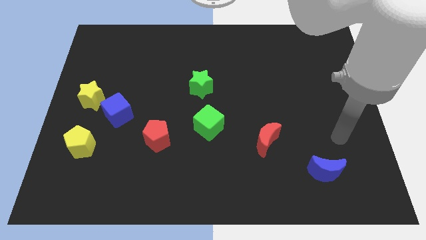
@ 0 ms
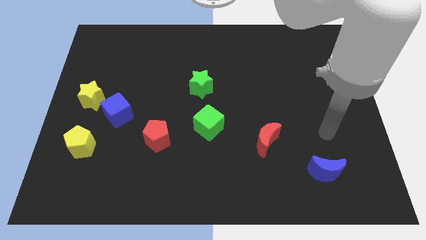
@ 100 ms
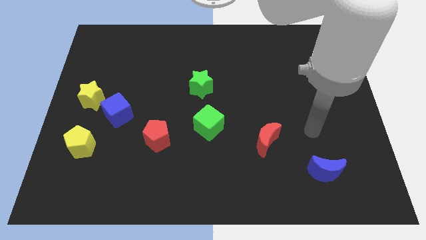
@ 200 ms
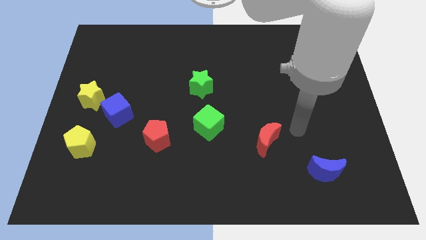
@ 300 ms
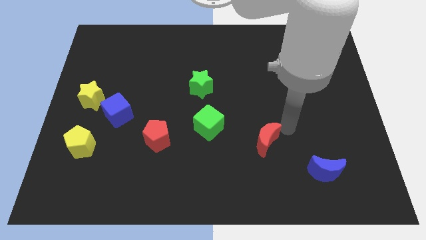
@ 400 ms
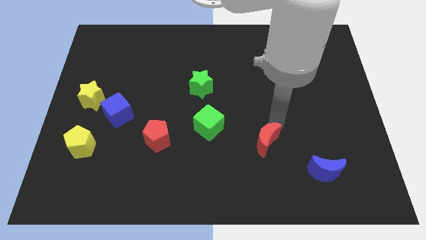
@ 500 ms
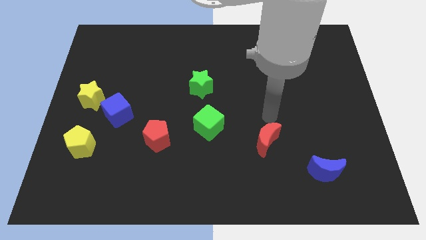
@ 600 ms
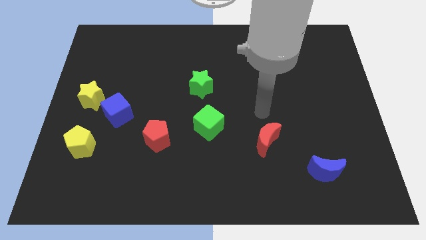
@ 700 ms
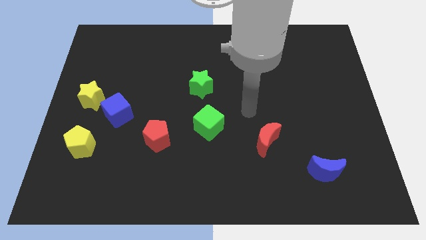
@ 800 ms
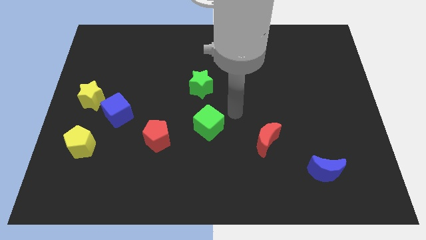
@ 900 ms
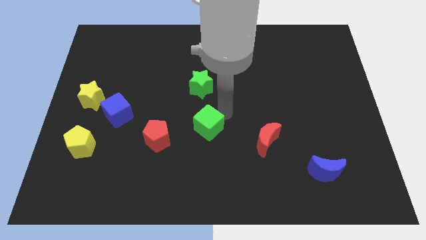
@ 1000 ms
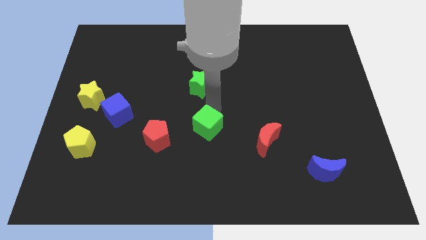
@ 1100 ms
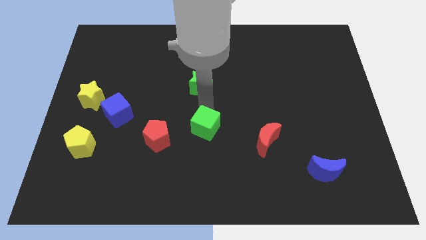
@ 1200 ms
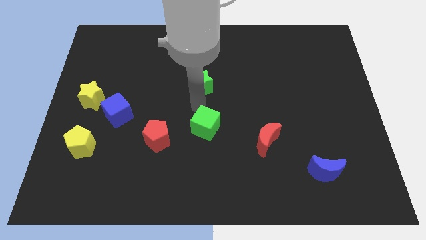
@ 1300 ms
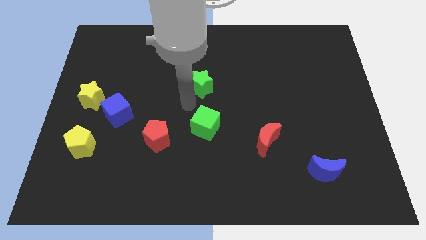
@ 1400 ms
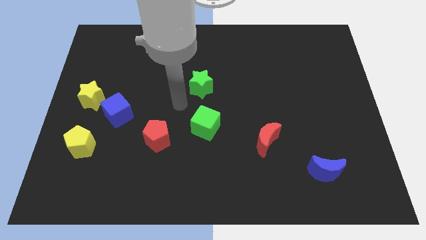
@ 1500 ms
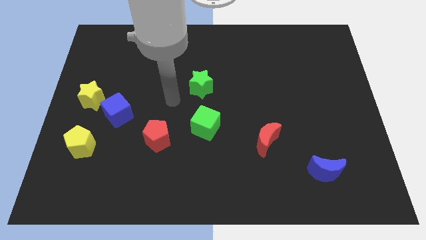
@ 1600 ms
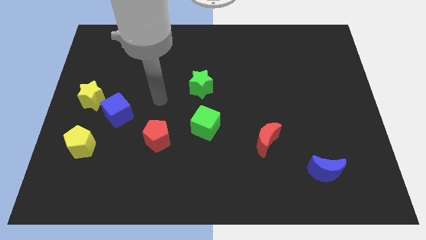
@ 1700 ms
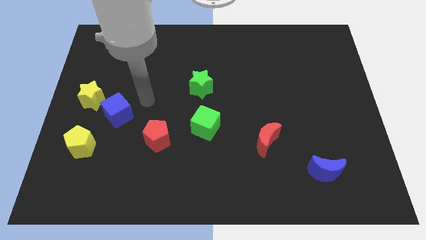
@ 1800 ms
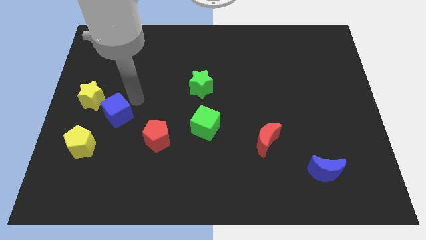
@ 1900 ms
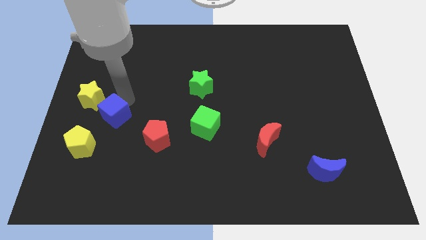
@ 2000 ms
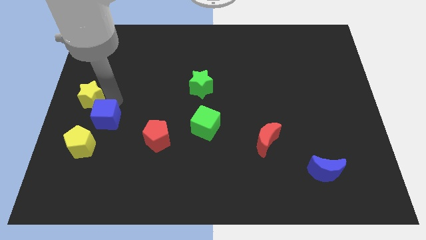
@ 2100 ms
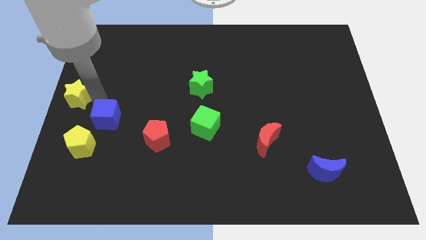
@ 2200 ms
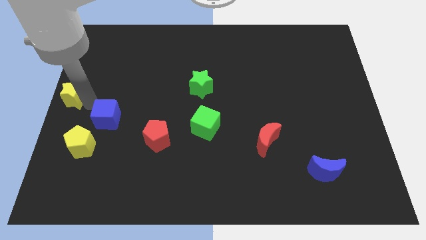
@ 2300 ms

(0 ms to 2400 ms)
pull the blue cube apart from the yellow star

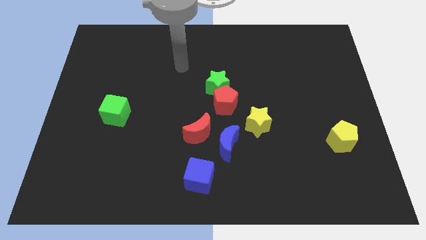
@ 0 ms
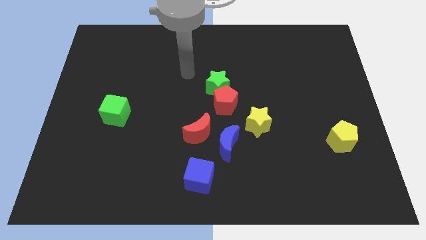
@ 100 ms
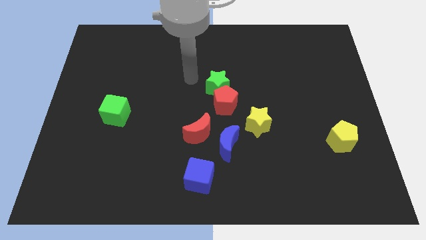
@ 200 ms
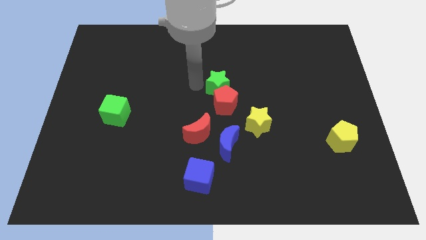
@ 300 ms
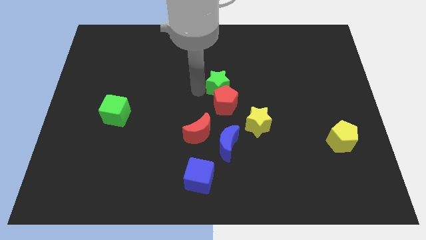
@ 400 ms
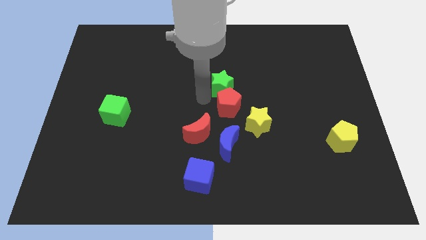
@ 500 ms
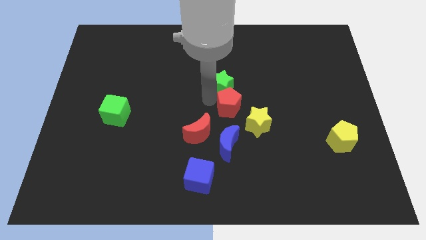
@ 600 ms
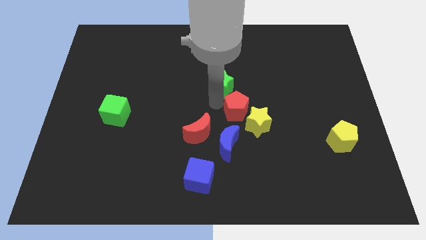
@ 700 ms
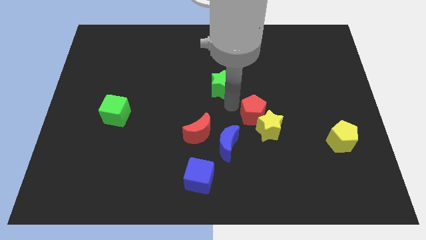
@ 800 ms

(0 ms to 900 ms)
pull the green star apart from the red pentagon

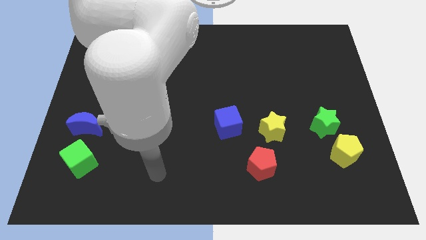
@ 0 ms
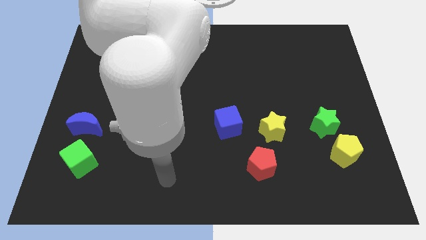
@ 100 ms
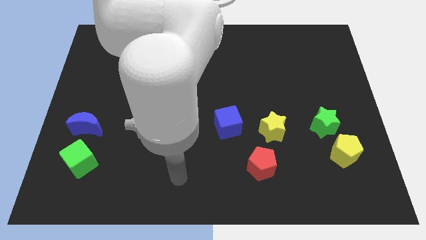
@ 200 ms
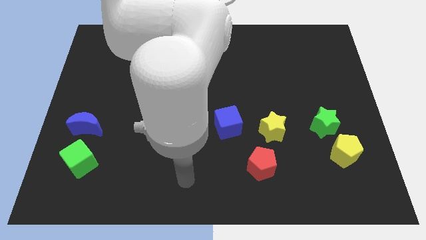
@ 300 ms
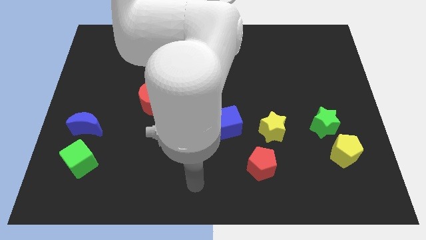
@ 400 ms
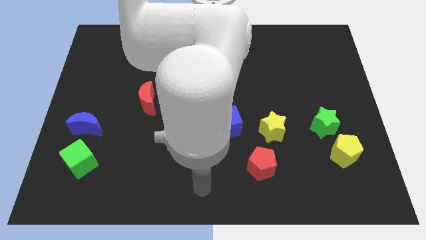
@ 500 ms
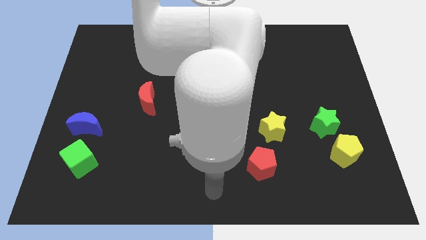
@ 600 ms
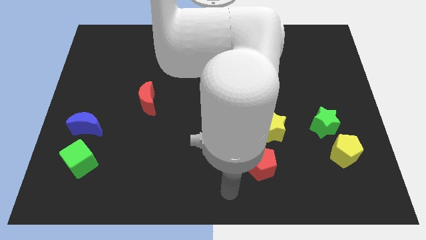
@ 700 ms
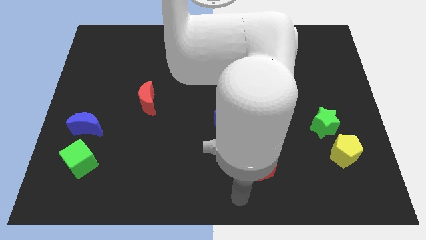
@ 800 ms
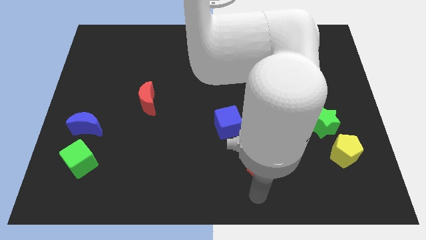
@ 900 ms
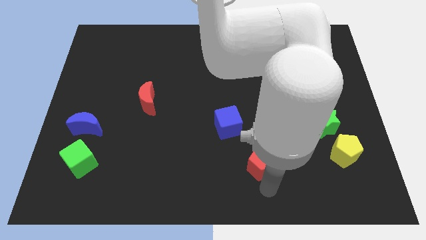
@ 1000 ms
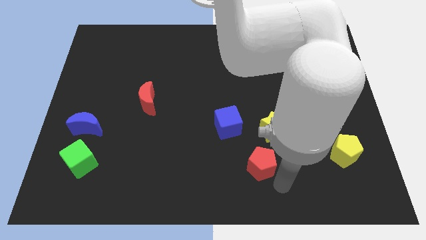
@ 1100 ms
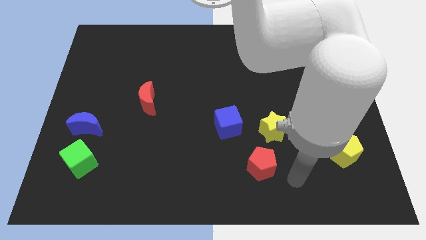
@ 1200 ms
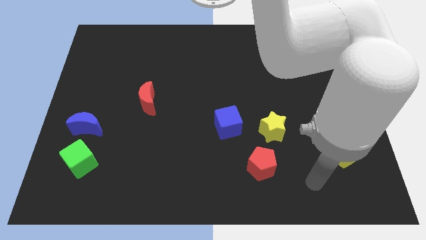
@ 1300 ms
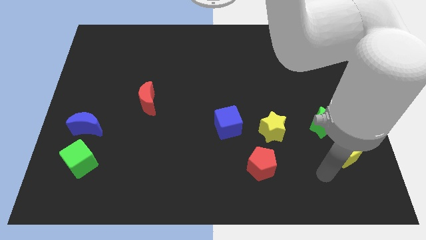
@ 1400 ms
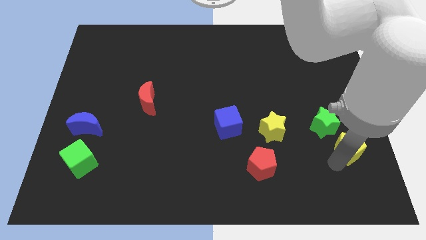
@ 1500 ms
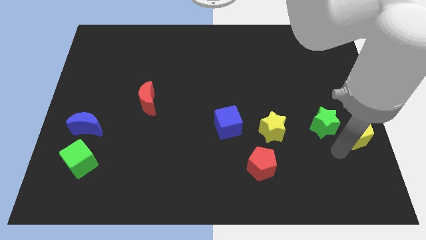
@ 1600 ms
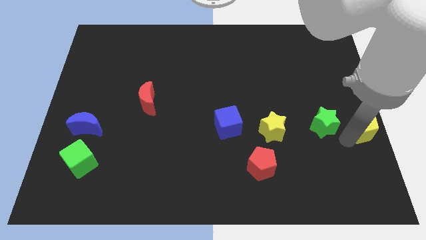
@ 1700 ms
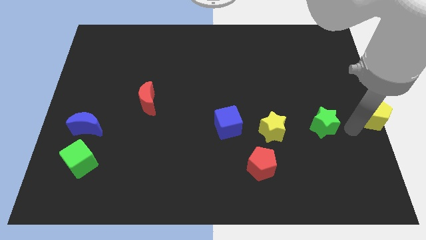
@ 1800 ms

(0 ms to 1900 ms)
move the green star away from the yellow pentagon

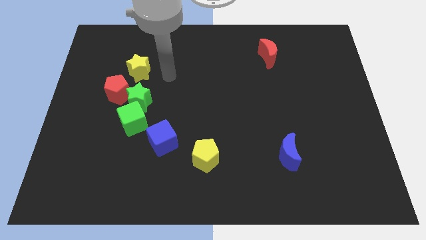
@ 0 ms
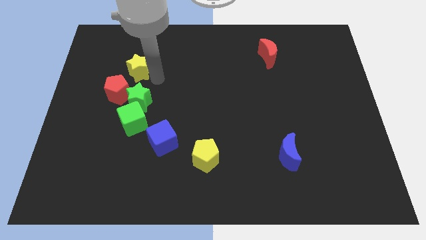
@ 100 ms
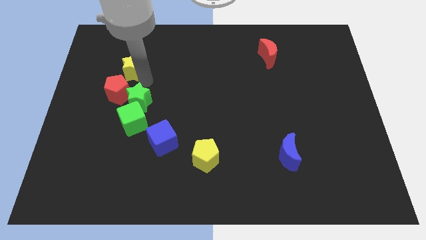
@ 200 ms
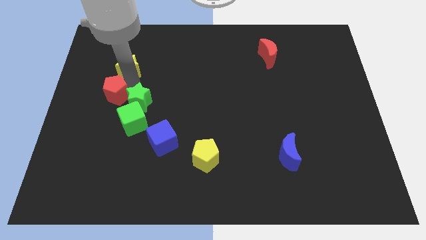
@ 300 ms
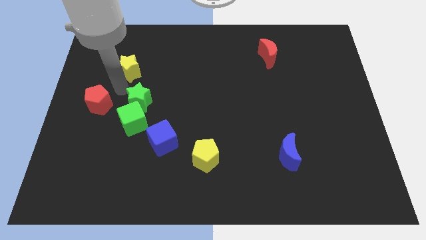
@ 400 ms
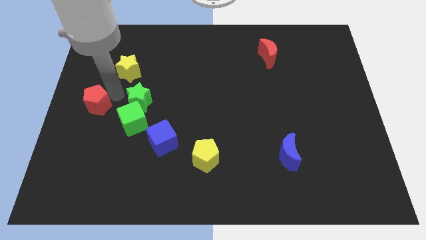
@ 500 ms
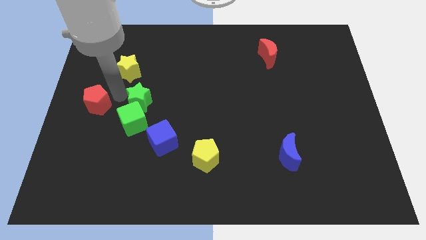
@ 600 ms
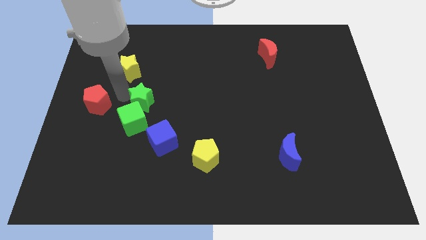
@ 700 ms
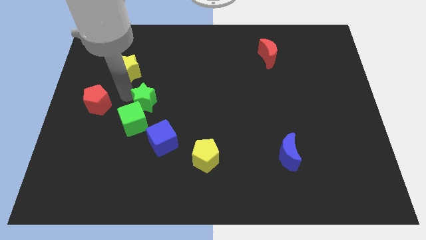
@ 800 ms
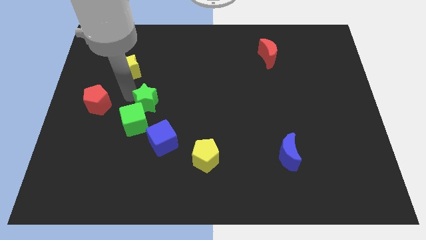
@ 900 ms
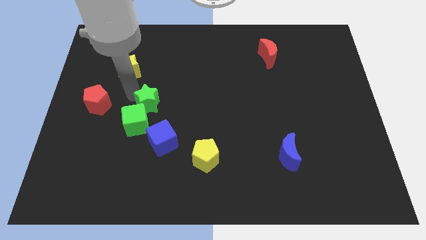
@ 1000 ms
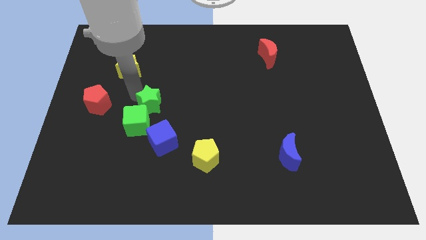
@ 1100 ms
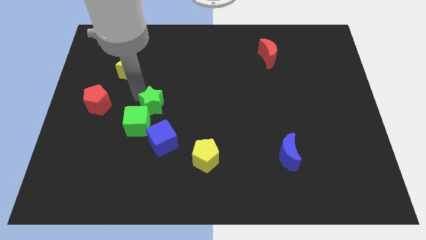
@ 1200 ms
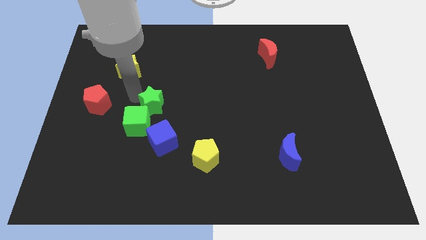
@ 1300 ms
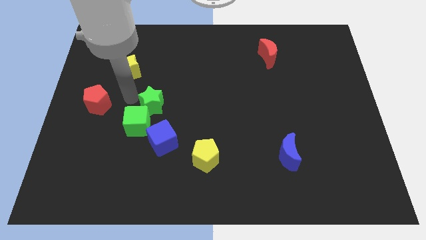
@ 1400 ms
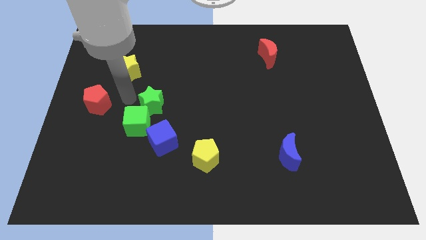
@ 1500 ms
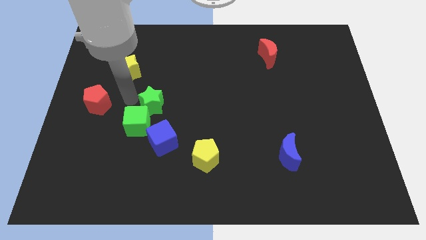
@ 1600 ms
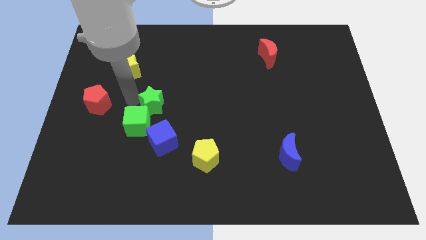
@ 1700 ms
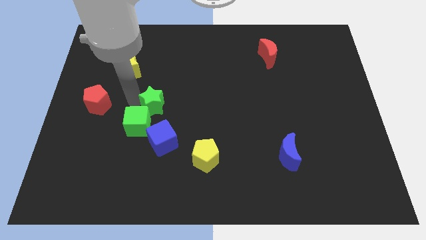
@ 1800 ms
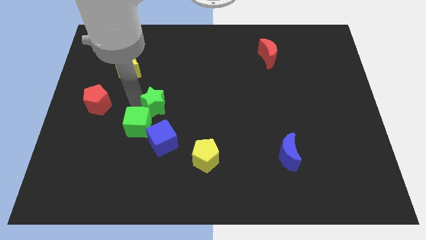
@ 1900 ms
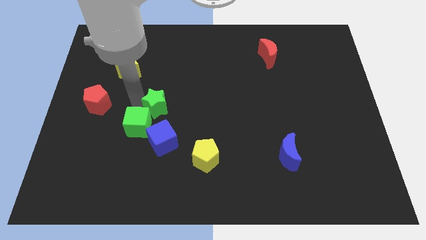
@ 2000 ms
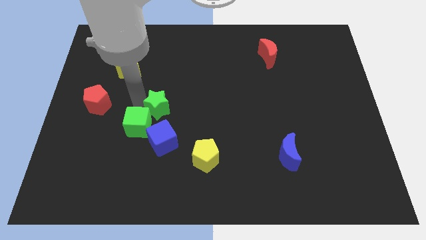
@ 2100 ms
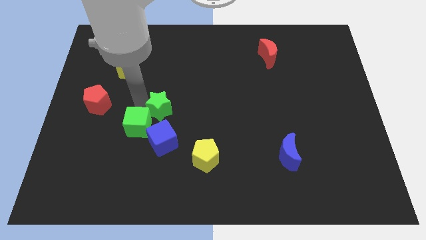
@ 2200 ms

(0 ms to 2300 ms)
separate the green star from the clump

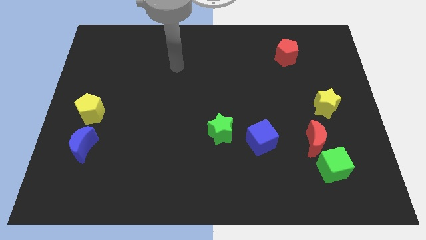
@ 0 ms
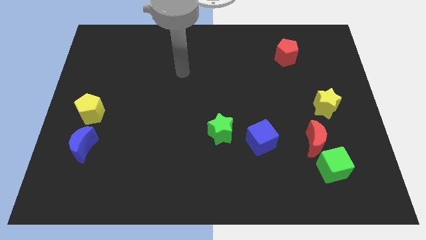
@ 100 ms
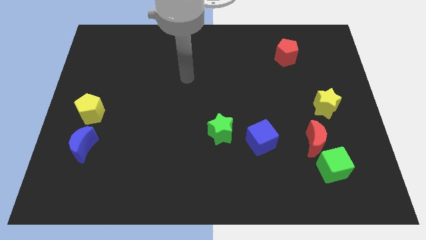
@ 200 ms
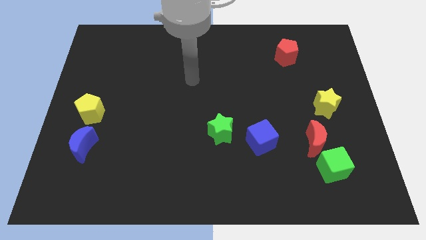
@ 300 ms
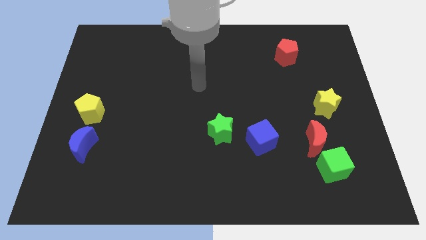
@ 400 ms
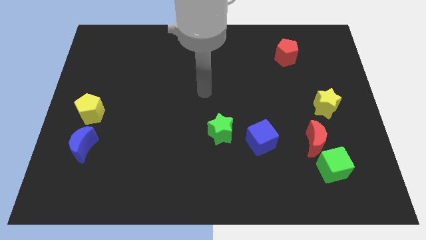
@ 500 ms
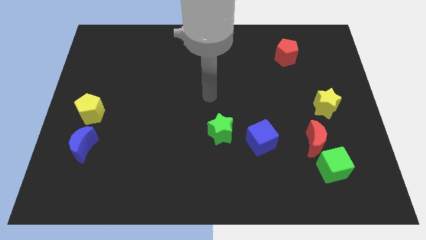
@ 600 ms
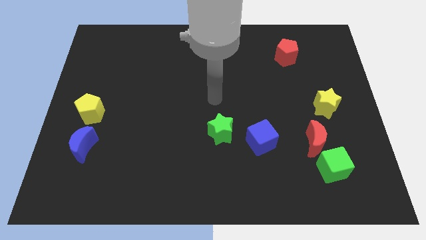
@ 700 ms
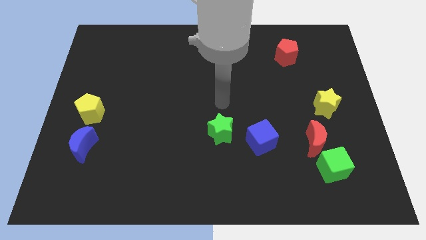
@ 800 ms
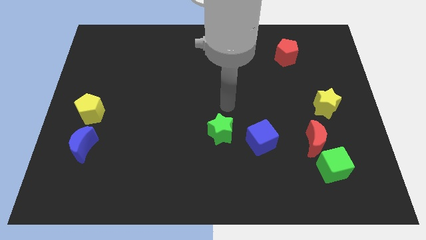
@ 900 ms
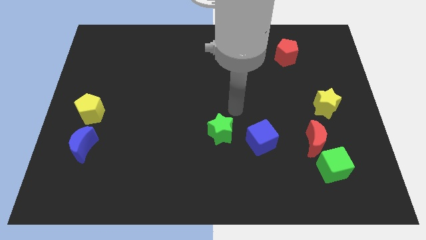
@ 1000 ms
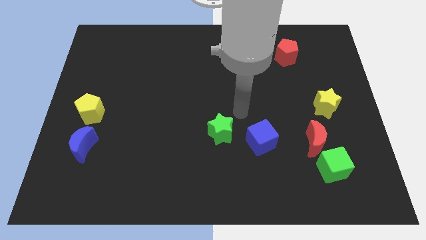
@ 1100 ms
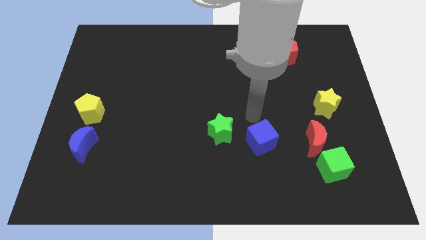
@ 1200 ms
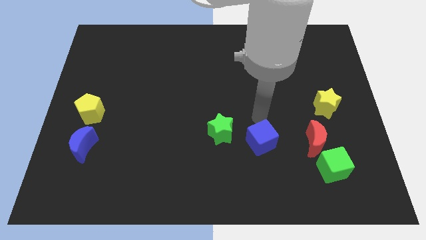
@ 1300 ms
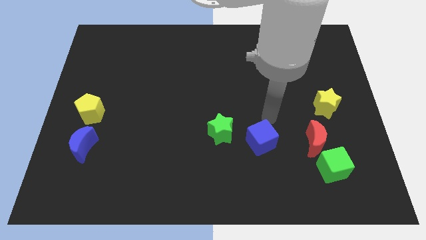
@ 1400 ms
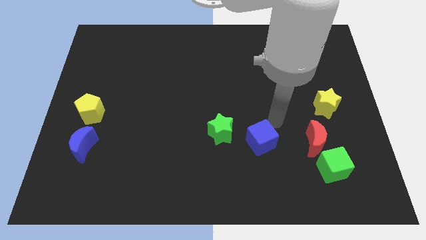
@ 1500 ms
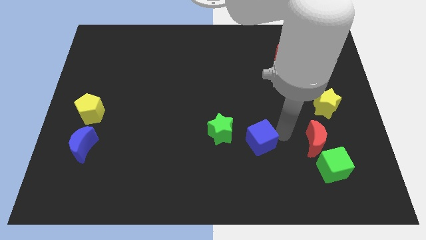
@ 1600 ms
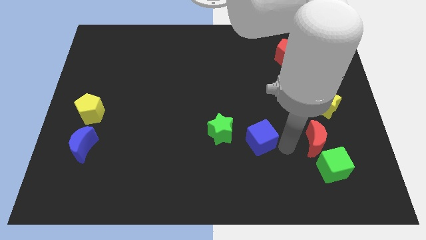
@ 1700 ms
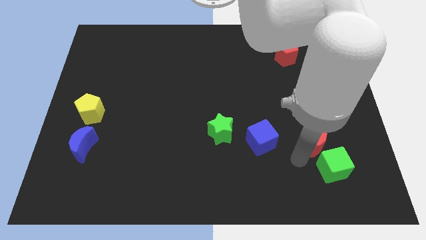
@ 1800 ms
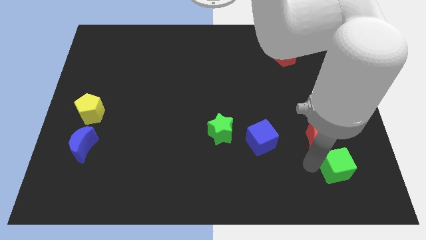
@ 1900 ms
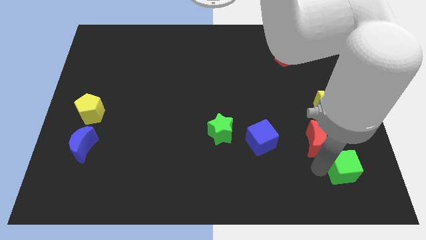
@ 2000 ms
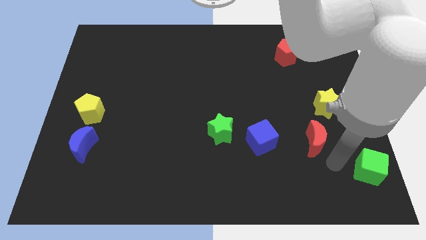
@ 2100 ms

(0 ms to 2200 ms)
pull the red moon apart from the green cube
